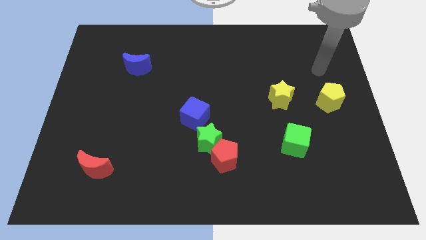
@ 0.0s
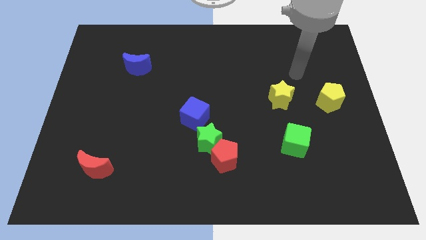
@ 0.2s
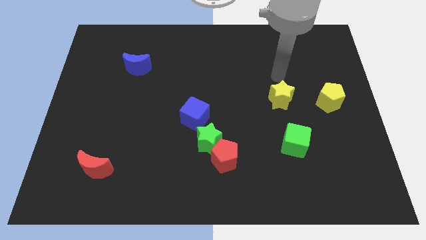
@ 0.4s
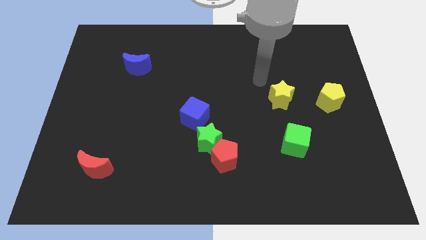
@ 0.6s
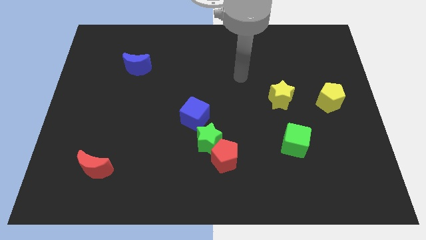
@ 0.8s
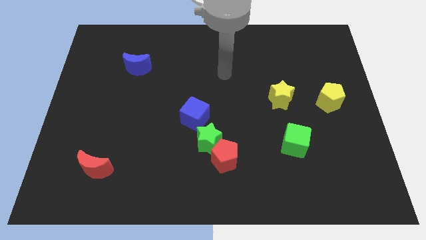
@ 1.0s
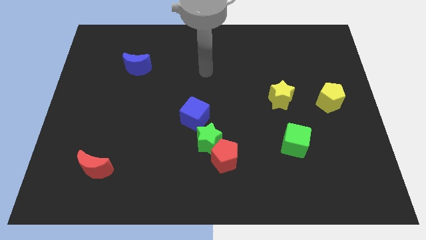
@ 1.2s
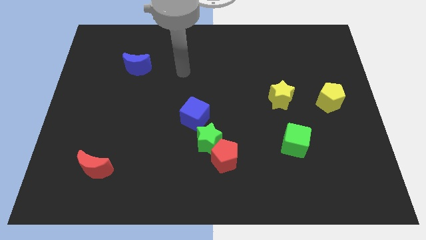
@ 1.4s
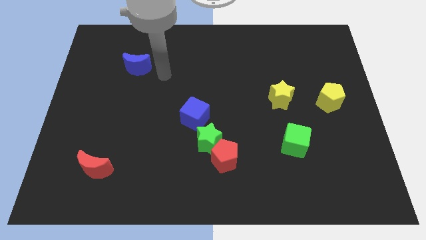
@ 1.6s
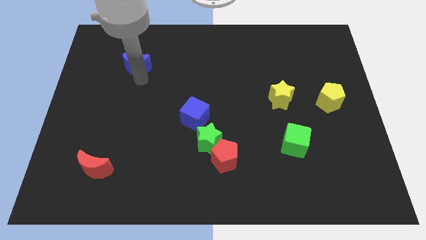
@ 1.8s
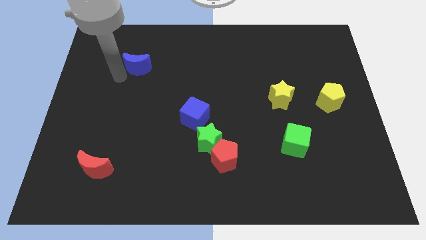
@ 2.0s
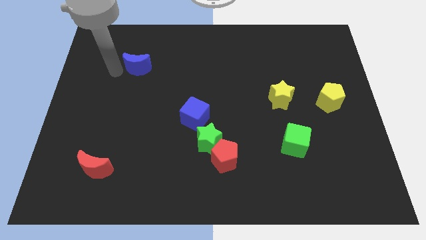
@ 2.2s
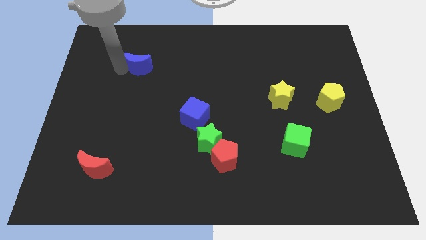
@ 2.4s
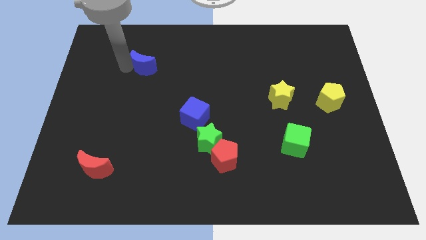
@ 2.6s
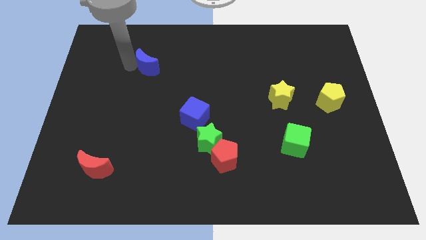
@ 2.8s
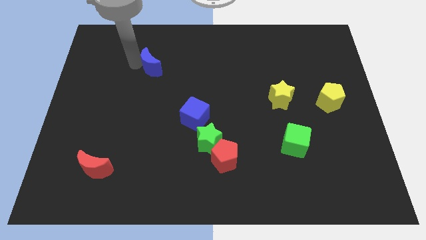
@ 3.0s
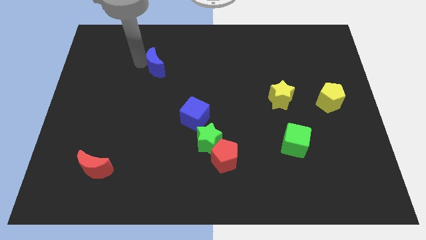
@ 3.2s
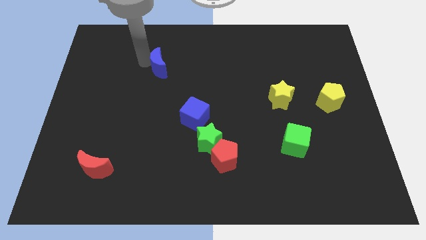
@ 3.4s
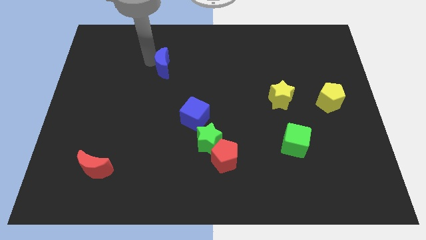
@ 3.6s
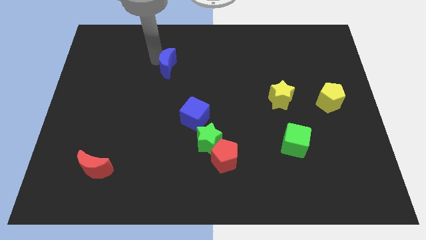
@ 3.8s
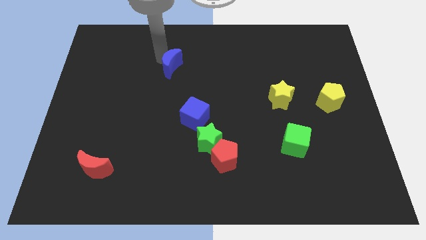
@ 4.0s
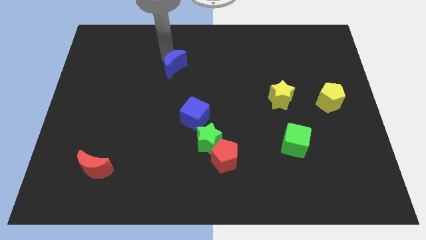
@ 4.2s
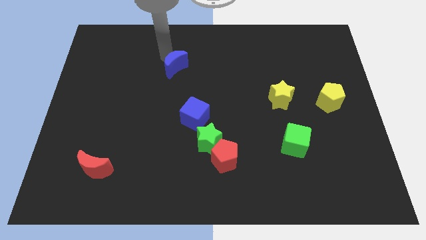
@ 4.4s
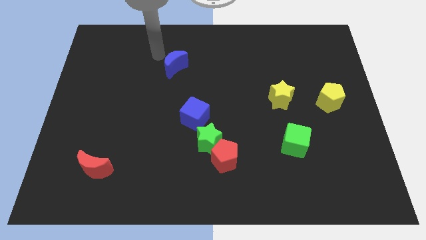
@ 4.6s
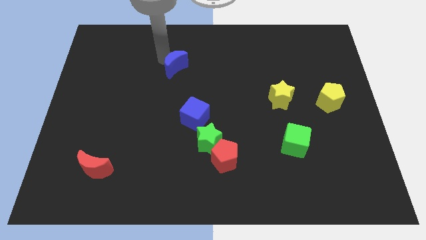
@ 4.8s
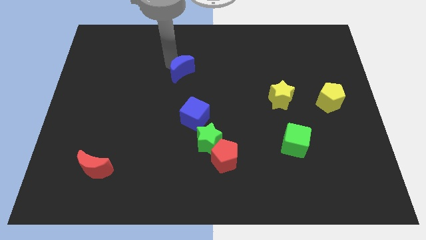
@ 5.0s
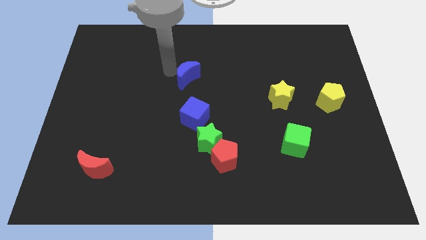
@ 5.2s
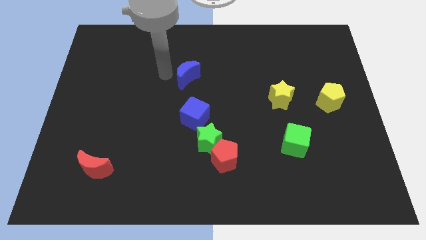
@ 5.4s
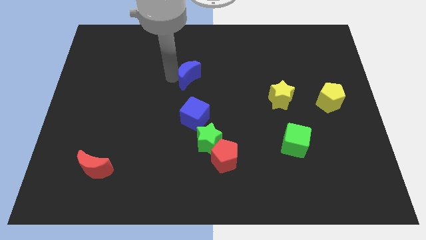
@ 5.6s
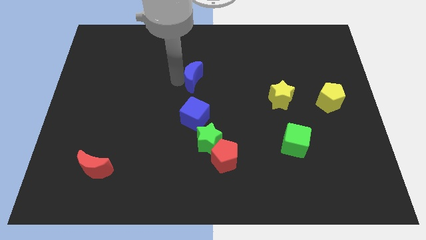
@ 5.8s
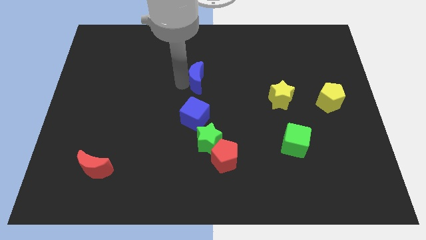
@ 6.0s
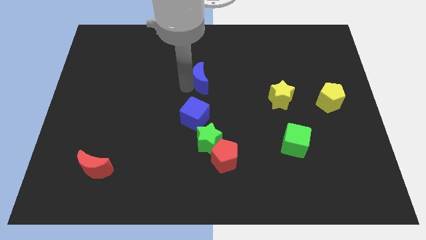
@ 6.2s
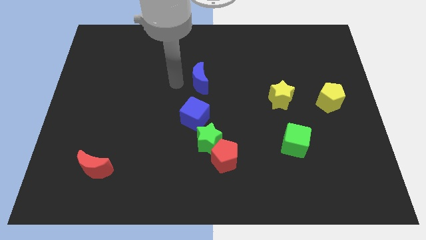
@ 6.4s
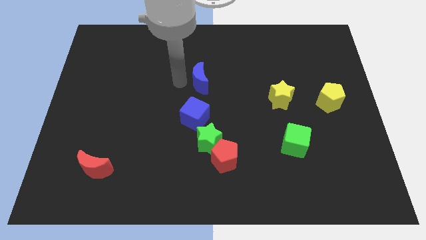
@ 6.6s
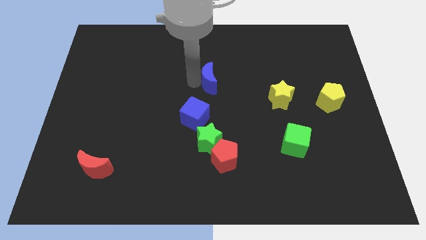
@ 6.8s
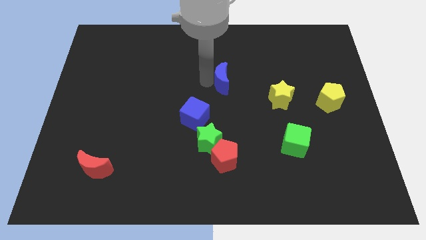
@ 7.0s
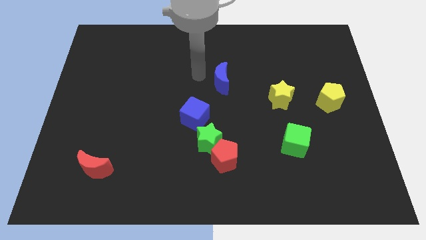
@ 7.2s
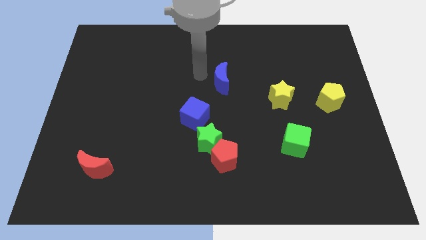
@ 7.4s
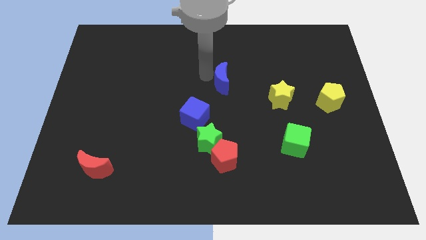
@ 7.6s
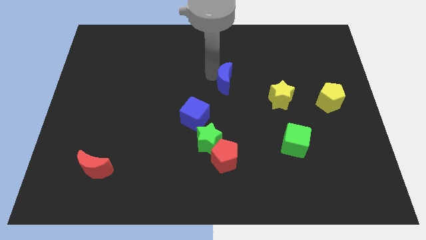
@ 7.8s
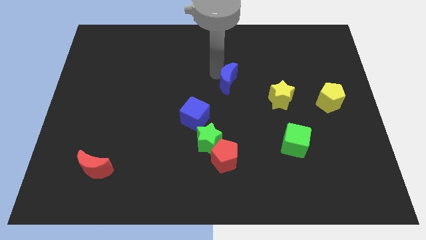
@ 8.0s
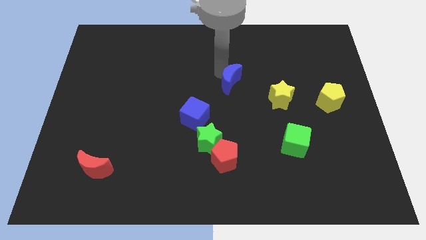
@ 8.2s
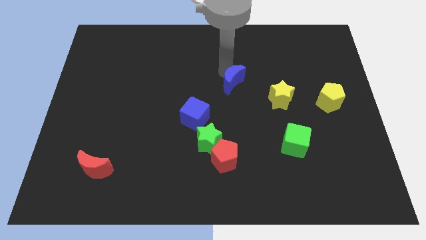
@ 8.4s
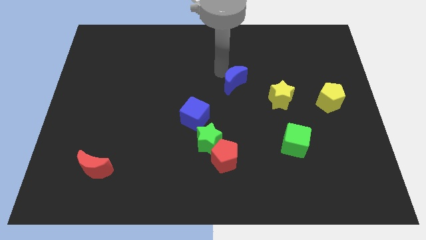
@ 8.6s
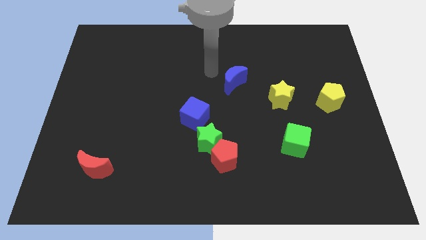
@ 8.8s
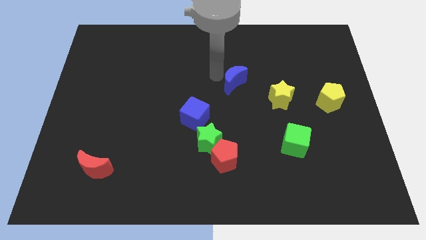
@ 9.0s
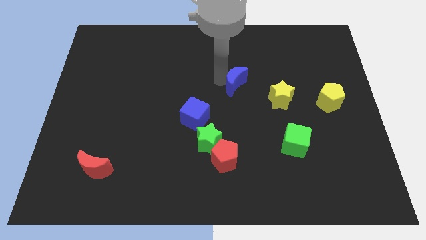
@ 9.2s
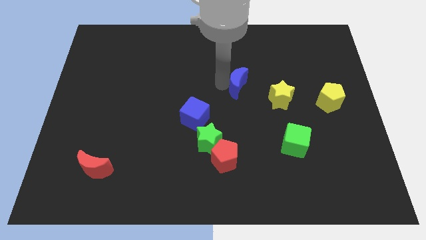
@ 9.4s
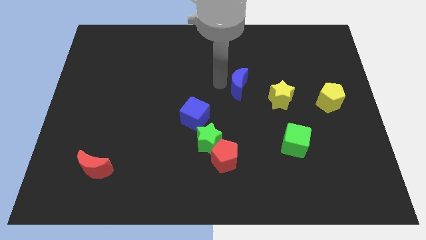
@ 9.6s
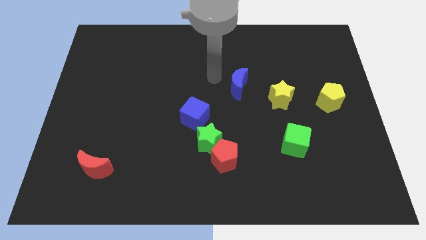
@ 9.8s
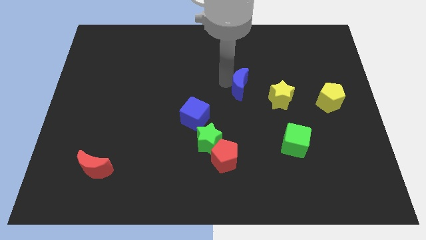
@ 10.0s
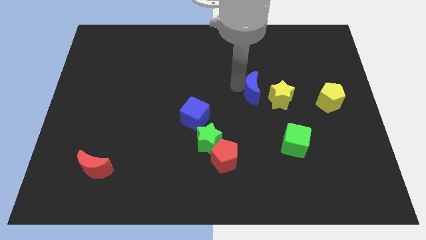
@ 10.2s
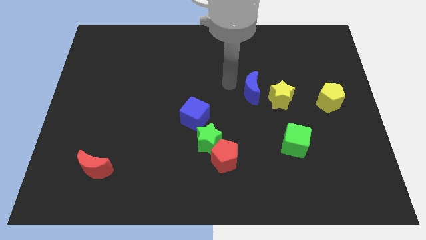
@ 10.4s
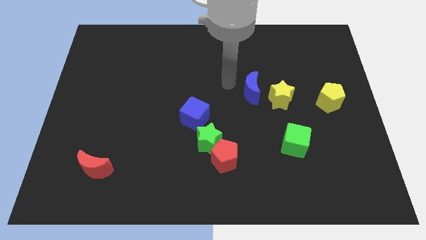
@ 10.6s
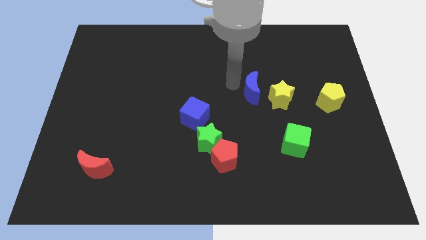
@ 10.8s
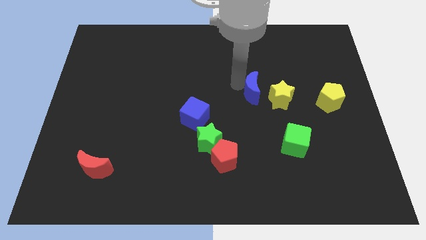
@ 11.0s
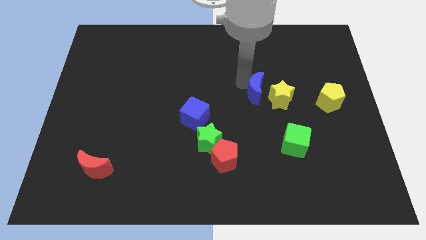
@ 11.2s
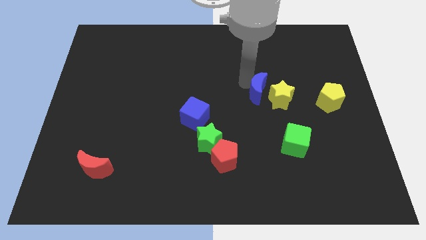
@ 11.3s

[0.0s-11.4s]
move the blue moon to the yellow star

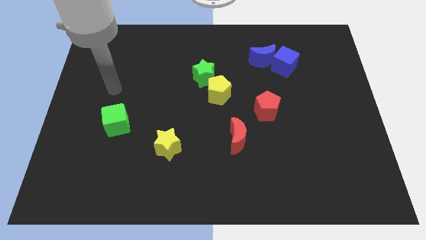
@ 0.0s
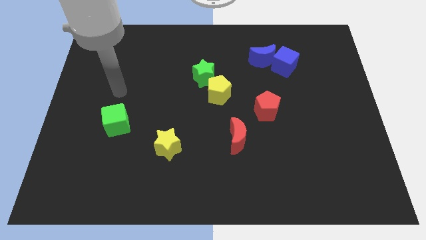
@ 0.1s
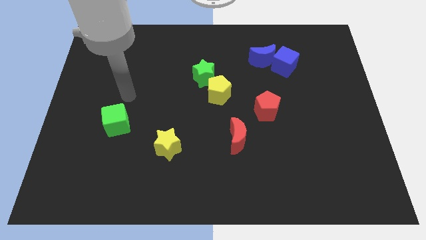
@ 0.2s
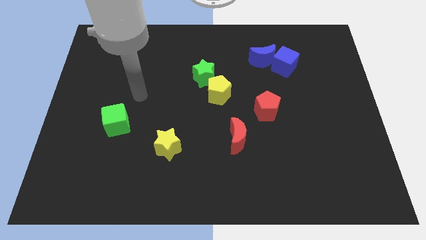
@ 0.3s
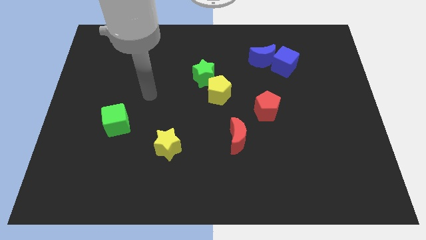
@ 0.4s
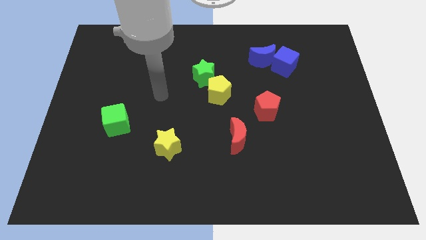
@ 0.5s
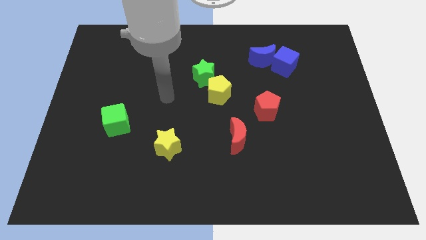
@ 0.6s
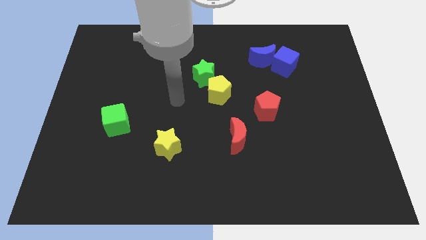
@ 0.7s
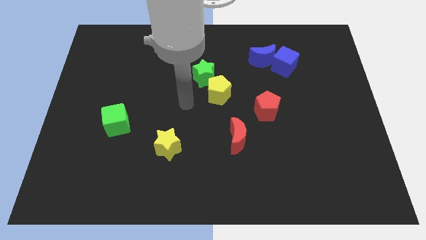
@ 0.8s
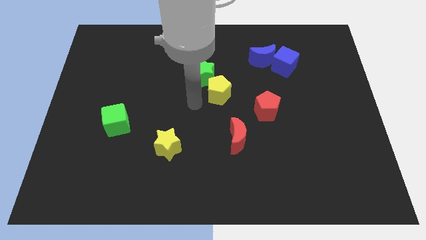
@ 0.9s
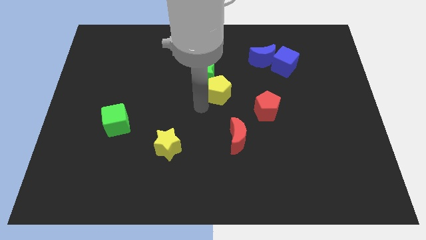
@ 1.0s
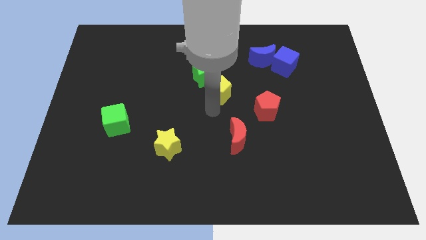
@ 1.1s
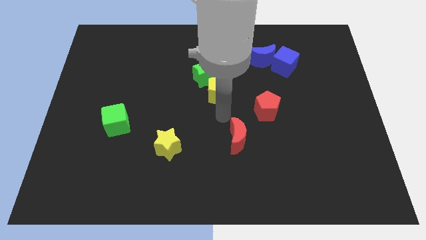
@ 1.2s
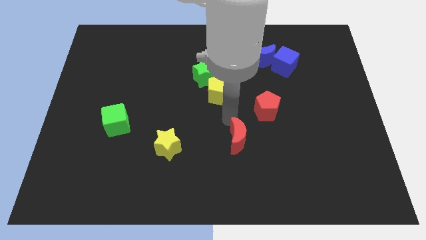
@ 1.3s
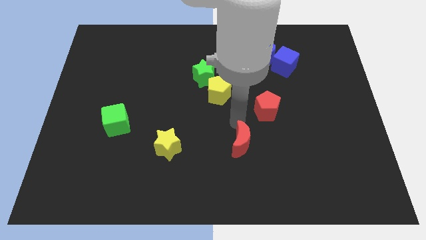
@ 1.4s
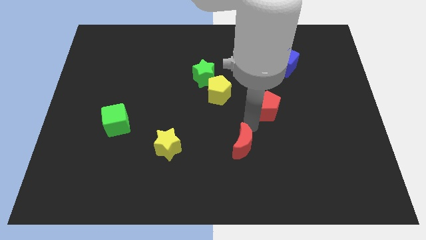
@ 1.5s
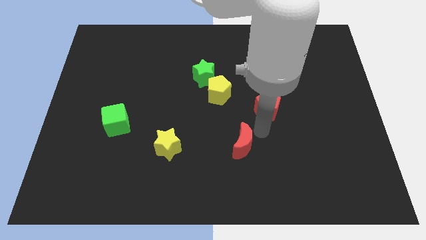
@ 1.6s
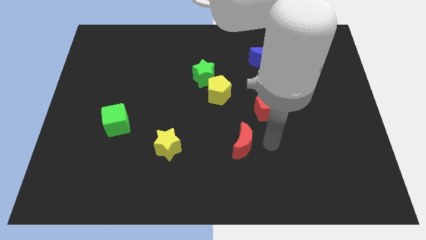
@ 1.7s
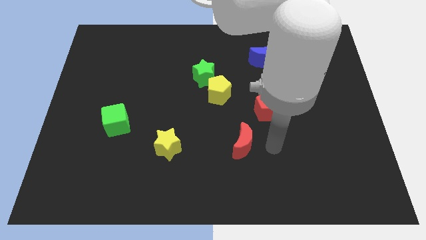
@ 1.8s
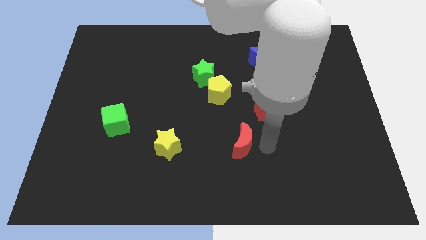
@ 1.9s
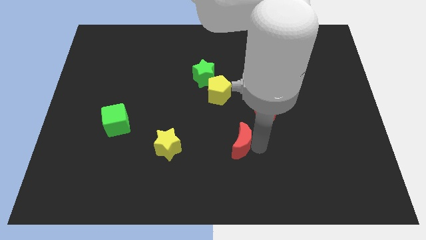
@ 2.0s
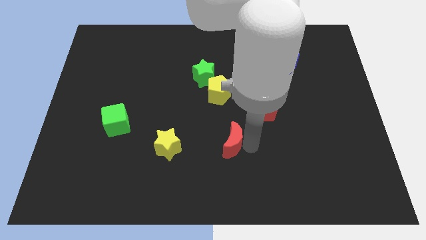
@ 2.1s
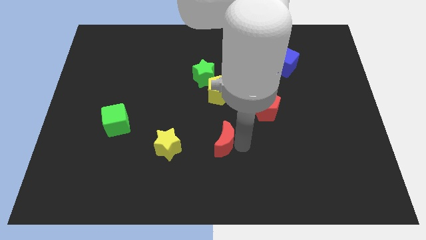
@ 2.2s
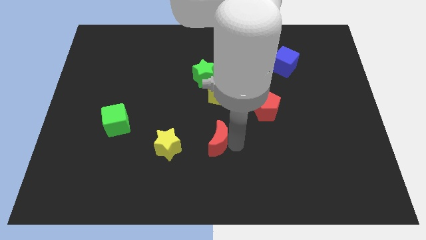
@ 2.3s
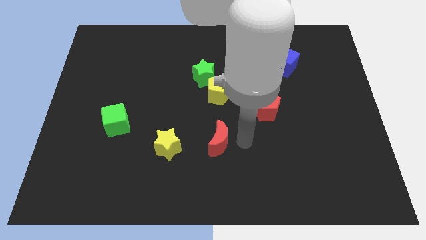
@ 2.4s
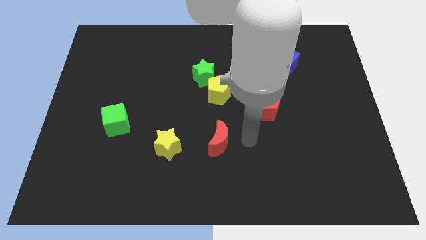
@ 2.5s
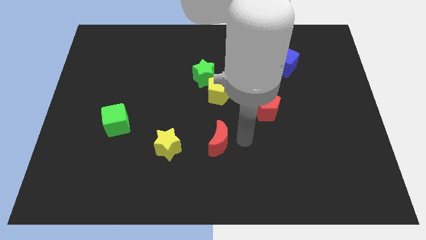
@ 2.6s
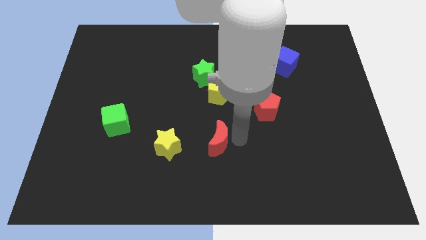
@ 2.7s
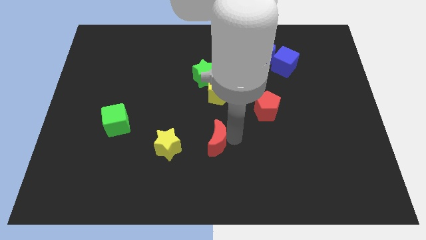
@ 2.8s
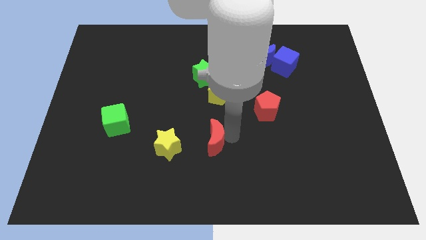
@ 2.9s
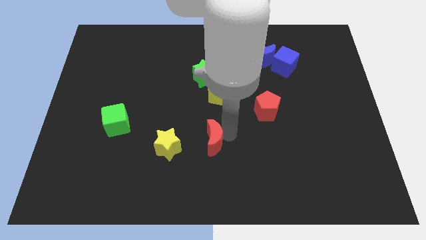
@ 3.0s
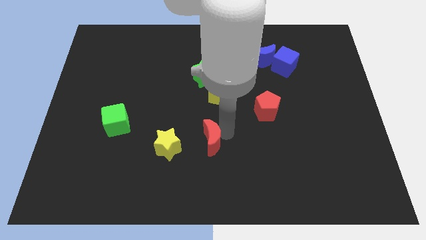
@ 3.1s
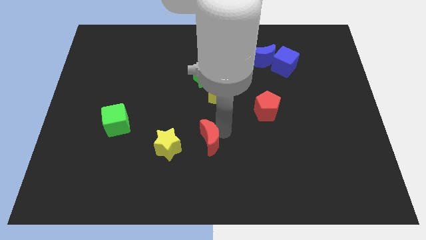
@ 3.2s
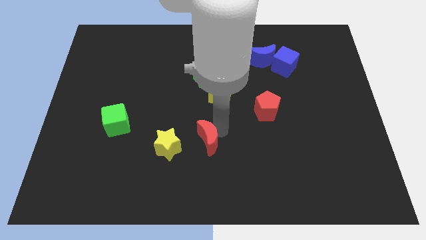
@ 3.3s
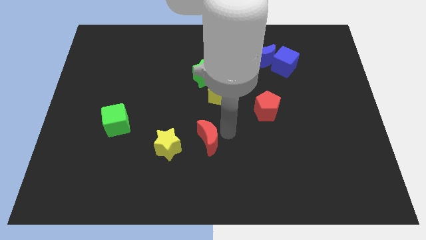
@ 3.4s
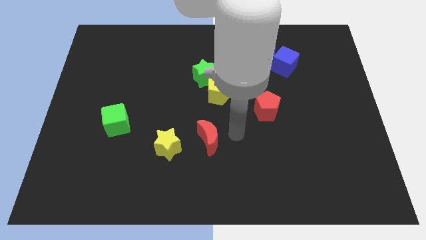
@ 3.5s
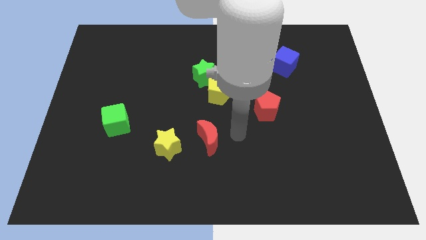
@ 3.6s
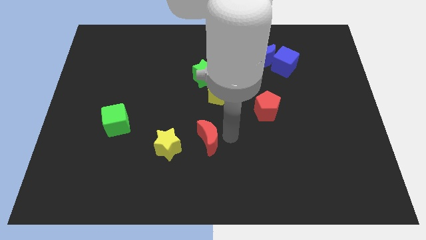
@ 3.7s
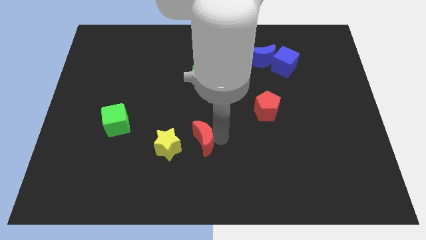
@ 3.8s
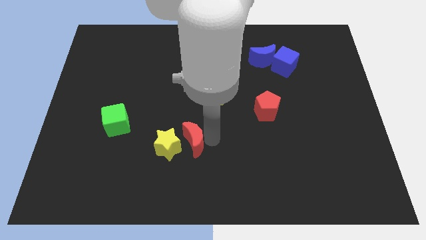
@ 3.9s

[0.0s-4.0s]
push the red moon close to the yellow star
